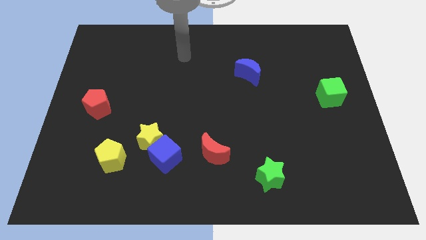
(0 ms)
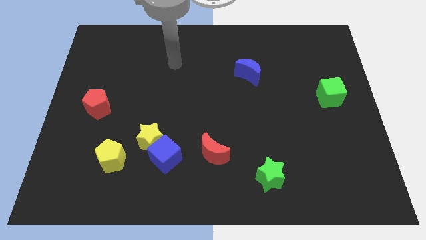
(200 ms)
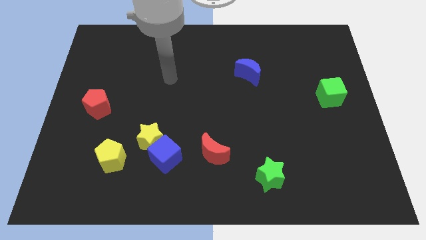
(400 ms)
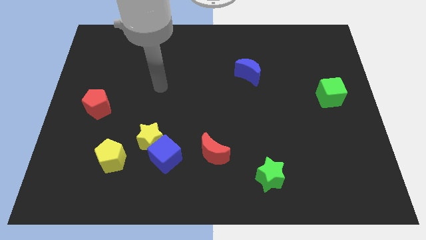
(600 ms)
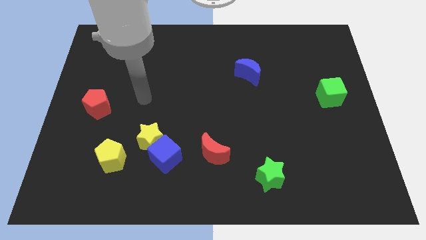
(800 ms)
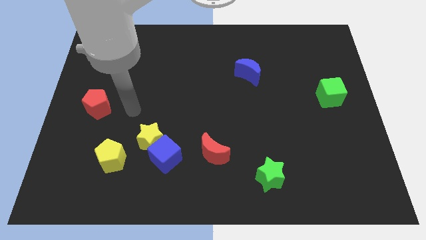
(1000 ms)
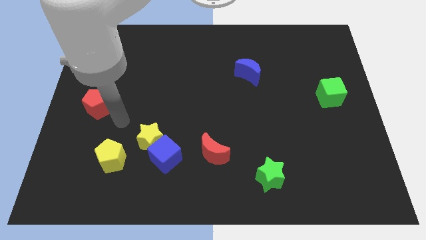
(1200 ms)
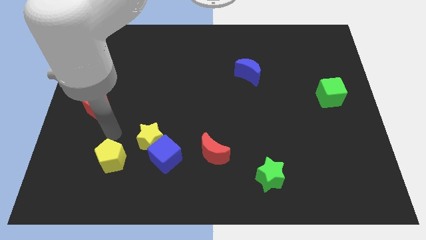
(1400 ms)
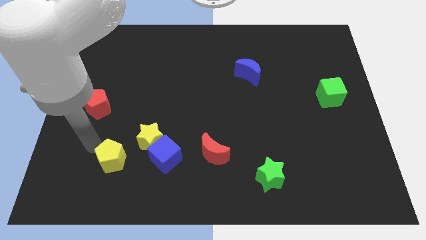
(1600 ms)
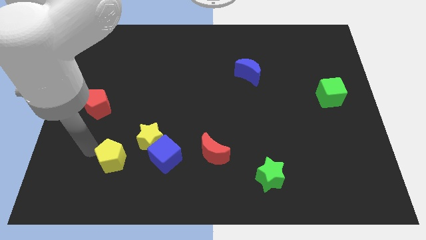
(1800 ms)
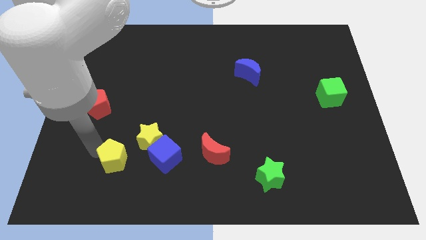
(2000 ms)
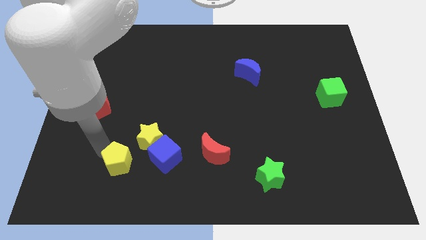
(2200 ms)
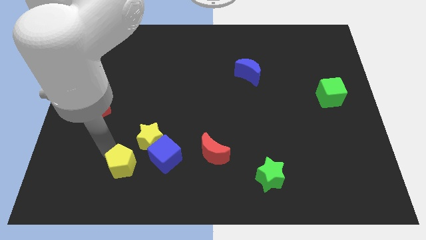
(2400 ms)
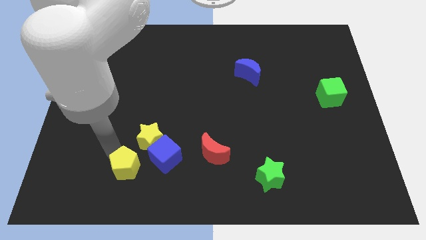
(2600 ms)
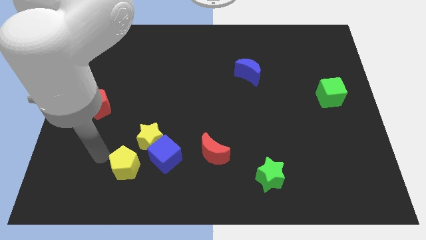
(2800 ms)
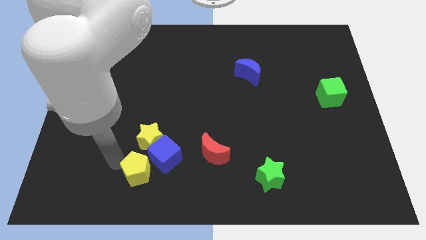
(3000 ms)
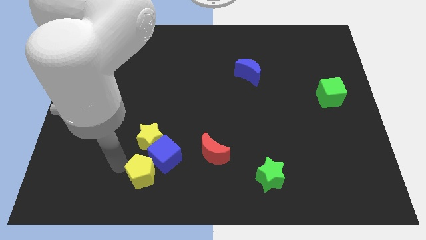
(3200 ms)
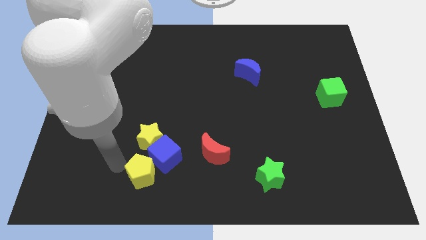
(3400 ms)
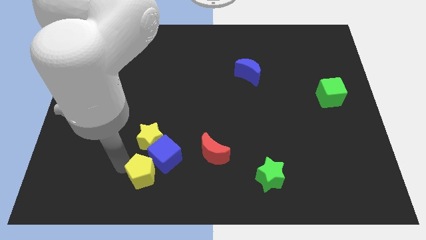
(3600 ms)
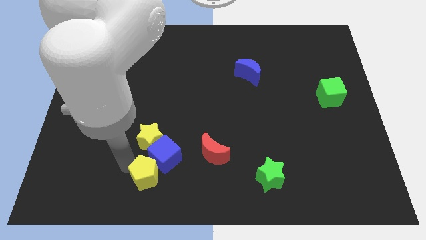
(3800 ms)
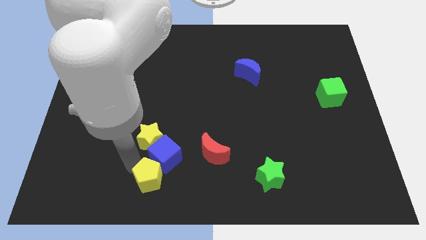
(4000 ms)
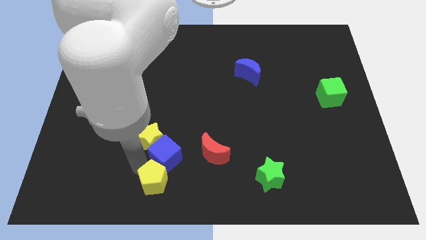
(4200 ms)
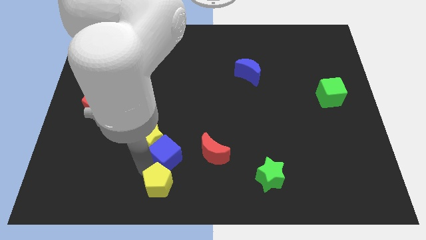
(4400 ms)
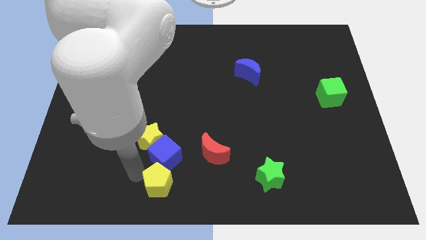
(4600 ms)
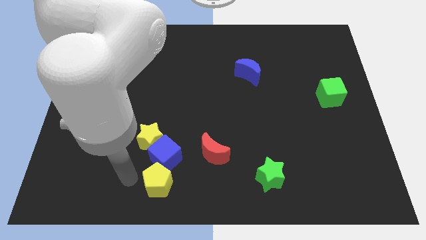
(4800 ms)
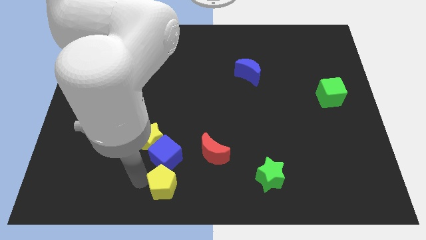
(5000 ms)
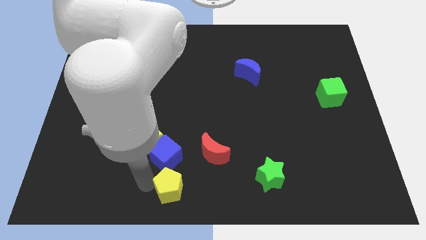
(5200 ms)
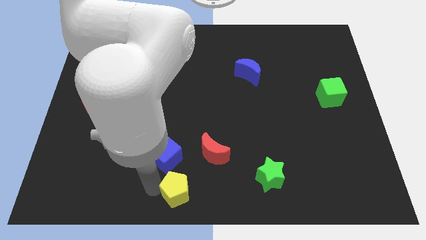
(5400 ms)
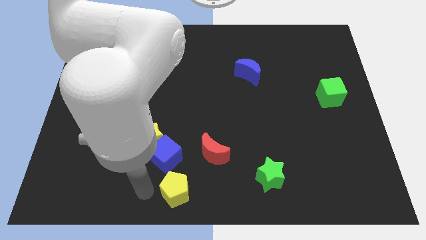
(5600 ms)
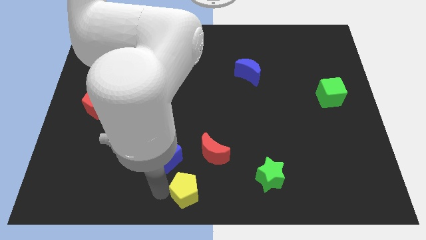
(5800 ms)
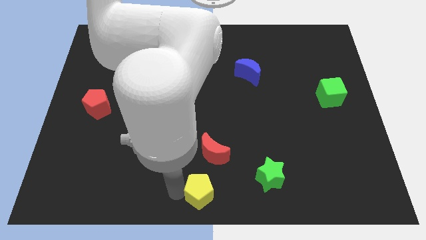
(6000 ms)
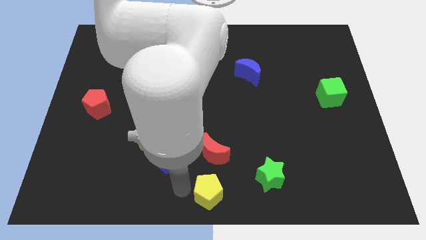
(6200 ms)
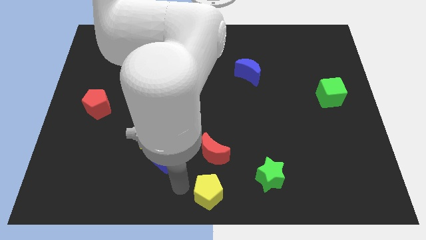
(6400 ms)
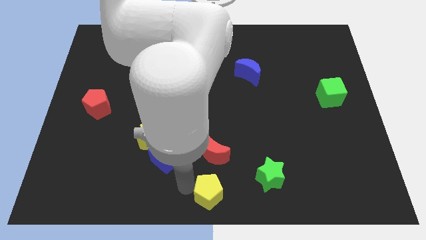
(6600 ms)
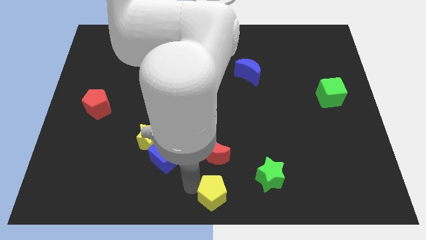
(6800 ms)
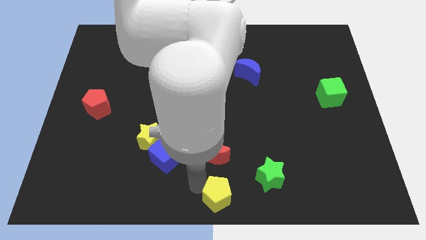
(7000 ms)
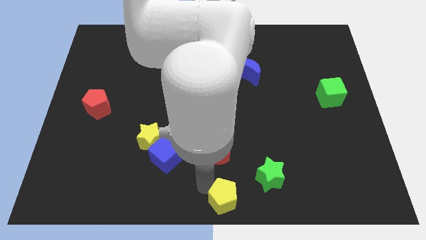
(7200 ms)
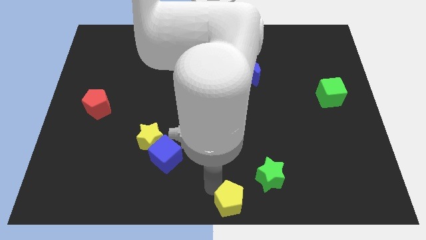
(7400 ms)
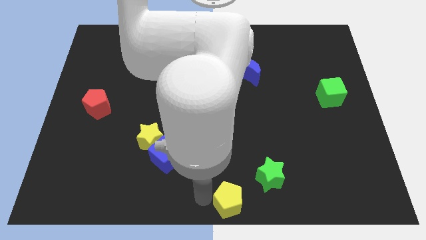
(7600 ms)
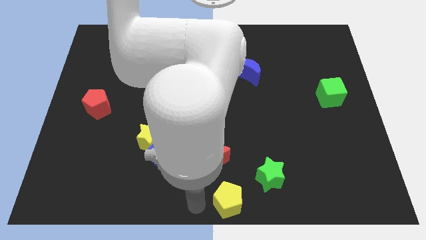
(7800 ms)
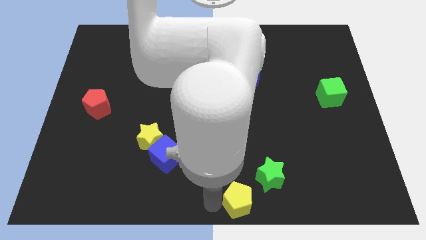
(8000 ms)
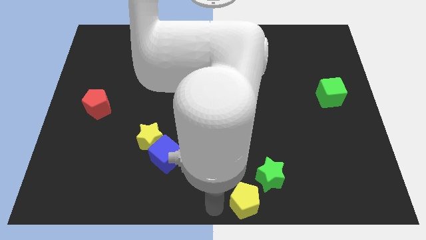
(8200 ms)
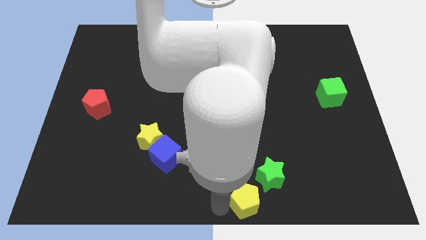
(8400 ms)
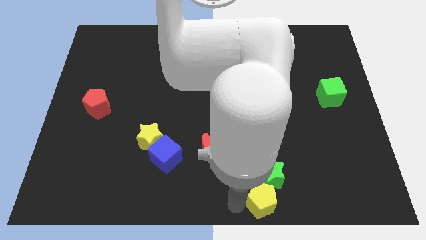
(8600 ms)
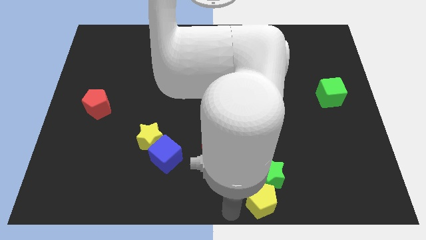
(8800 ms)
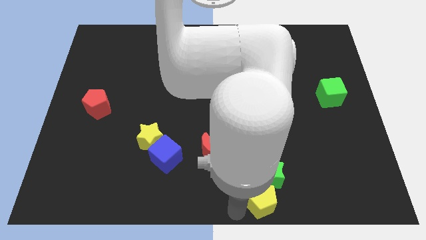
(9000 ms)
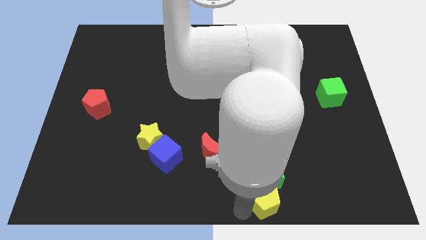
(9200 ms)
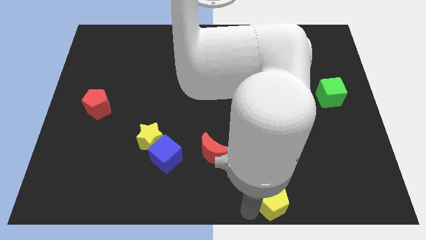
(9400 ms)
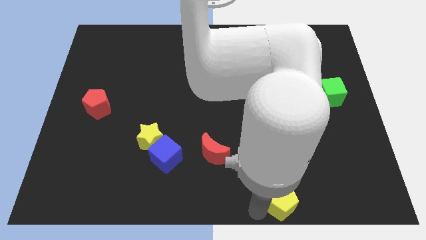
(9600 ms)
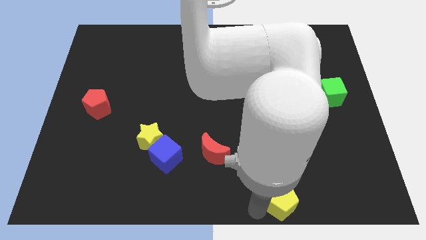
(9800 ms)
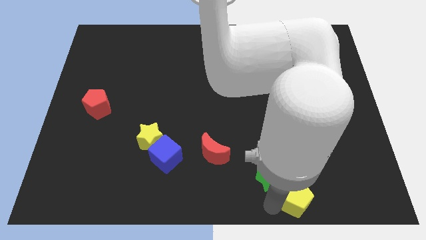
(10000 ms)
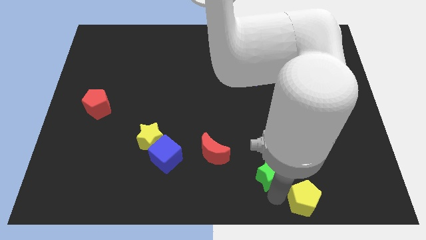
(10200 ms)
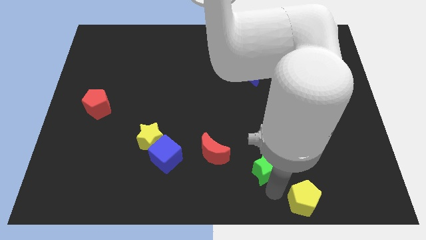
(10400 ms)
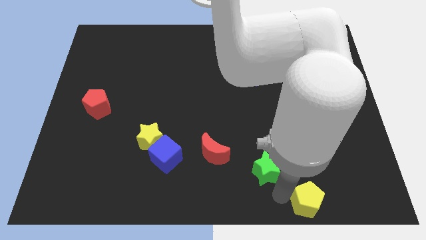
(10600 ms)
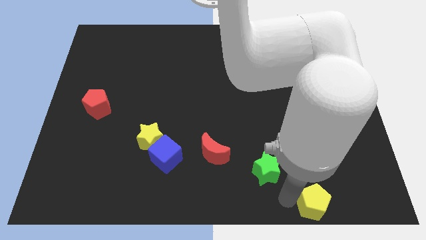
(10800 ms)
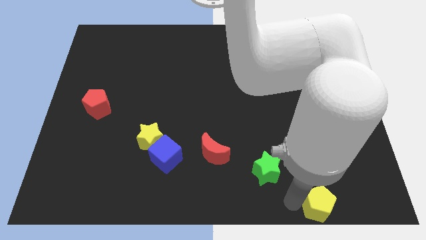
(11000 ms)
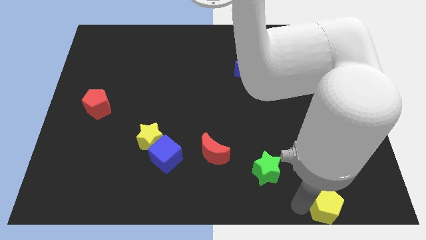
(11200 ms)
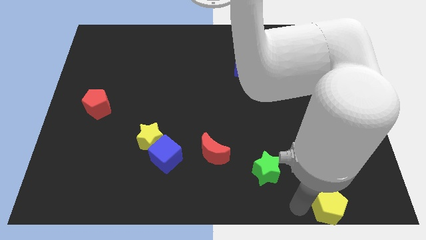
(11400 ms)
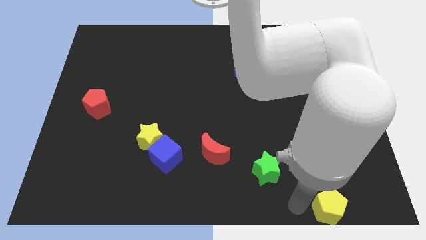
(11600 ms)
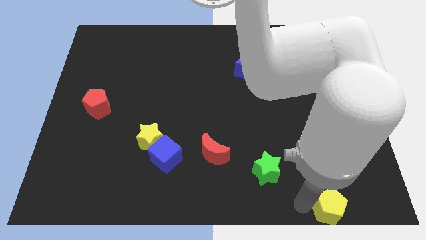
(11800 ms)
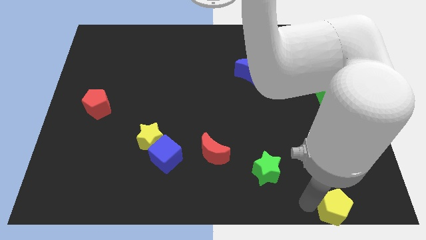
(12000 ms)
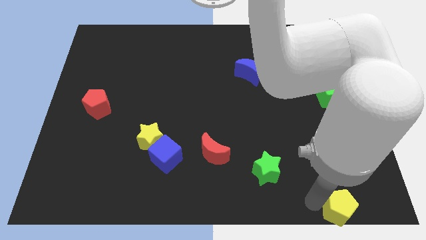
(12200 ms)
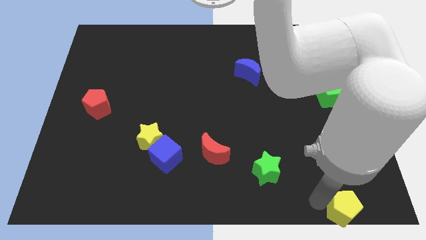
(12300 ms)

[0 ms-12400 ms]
push the yellow pentagon to the lower right corner
